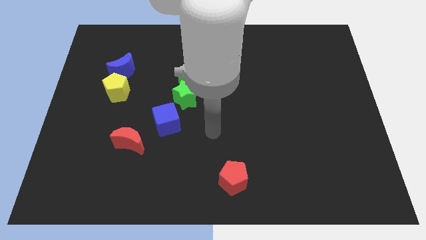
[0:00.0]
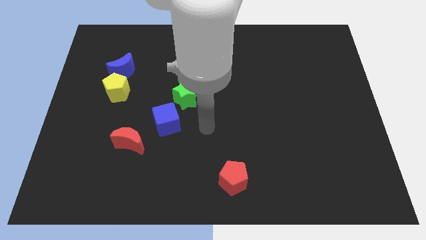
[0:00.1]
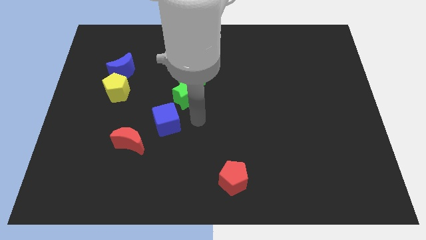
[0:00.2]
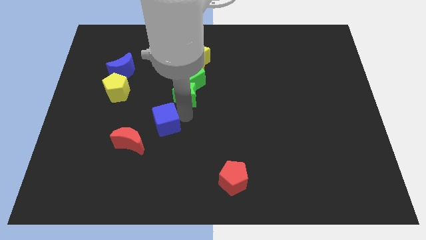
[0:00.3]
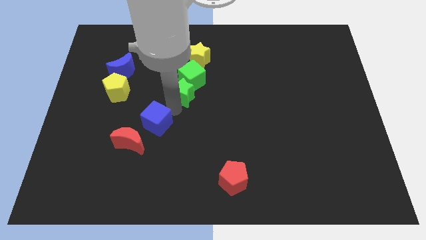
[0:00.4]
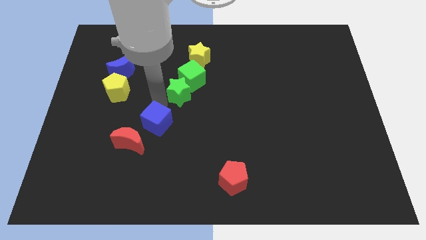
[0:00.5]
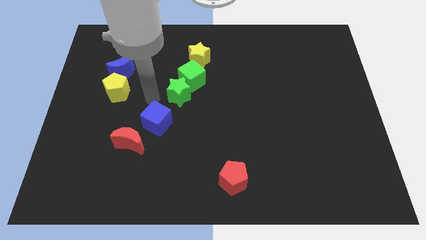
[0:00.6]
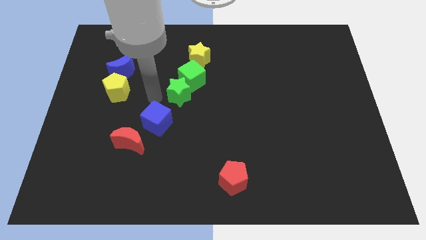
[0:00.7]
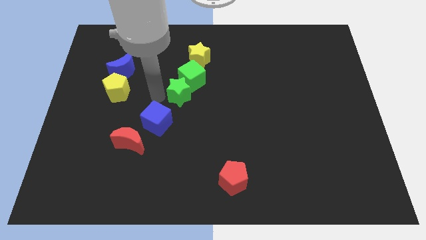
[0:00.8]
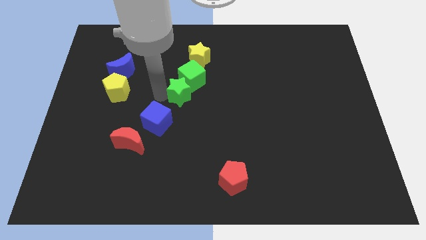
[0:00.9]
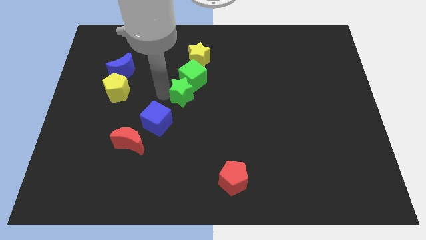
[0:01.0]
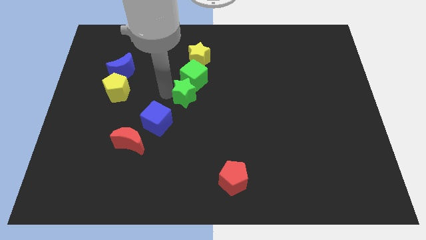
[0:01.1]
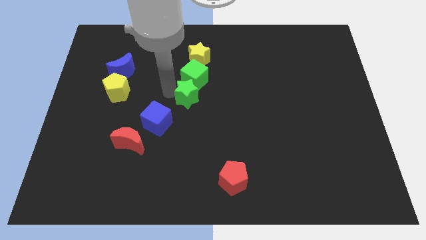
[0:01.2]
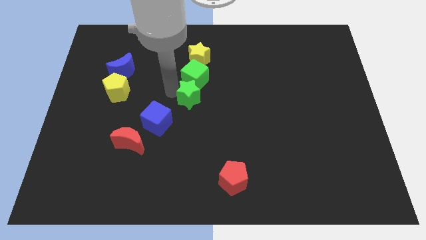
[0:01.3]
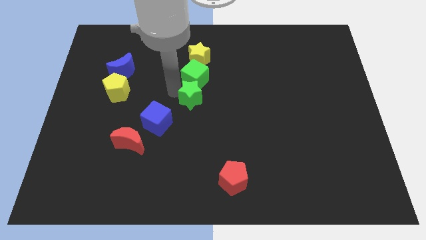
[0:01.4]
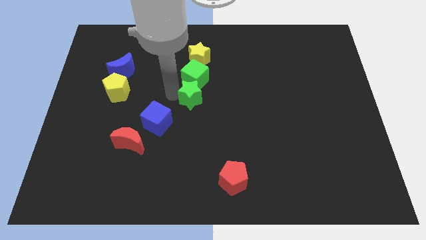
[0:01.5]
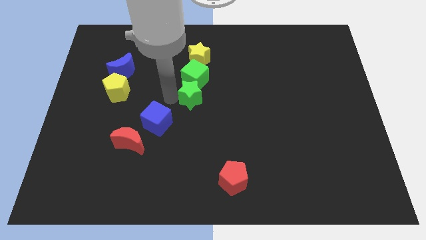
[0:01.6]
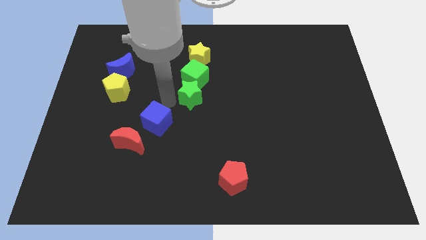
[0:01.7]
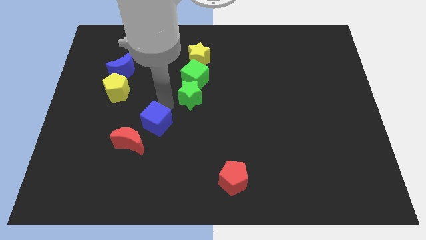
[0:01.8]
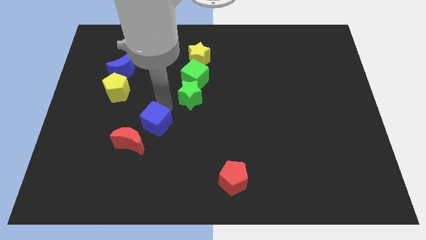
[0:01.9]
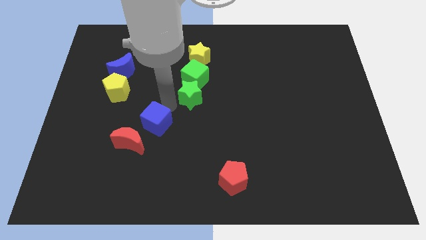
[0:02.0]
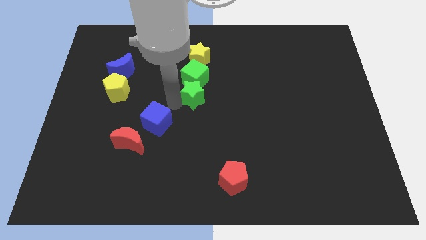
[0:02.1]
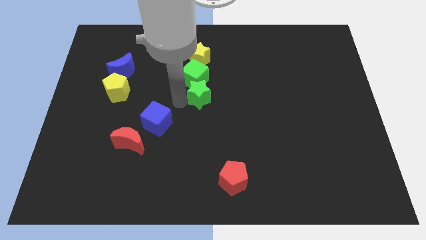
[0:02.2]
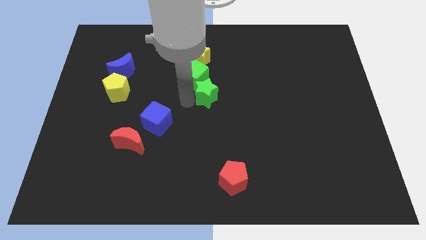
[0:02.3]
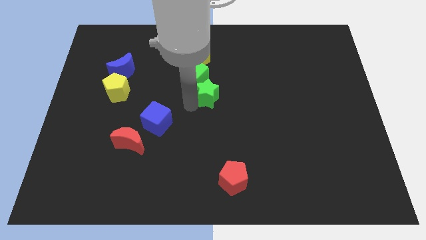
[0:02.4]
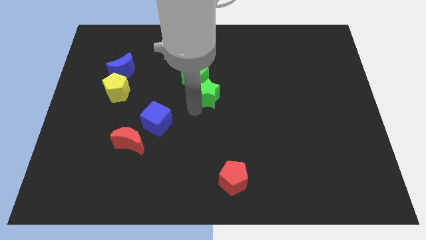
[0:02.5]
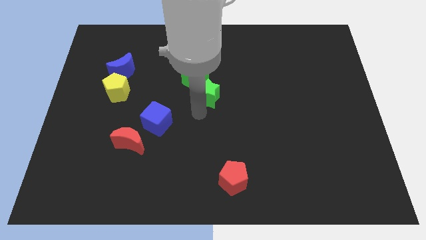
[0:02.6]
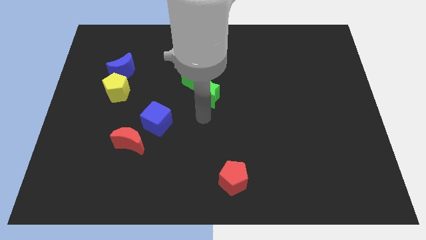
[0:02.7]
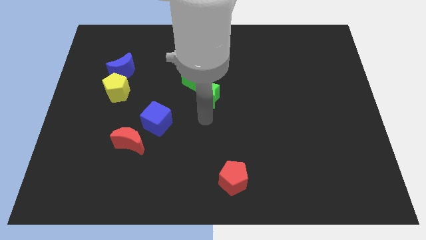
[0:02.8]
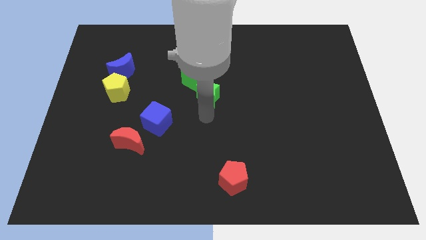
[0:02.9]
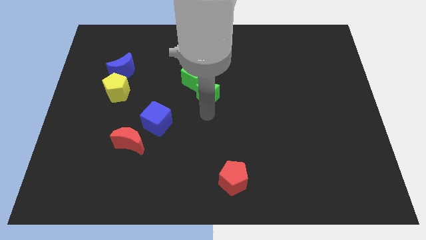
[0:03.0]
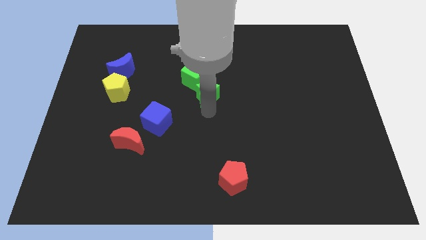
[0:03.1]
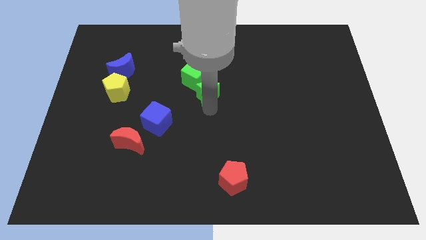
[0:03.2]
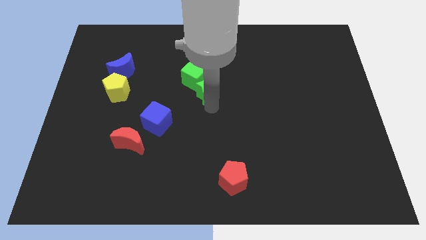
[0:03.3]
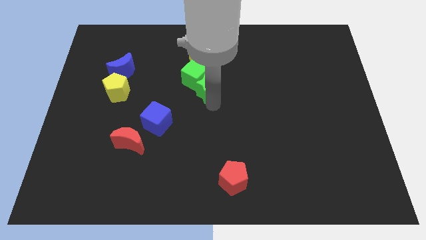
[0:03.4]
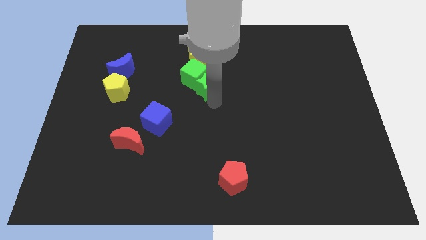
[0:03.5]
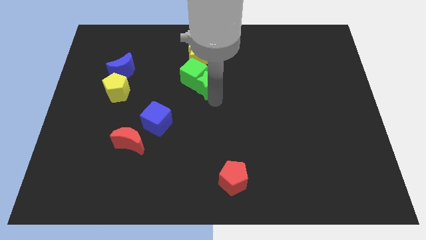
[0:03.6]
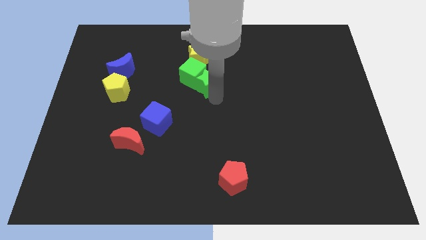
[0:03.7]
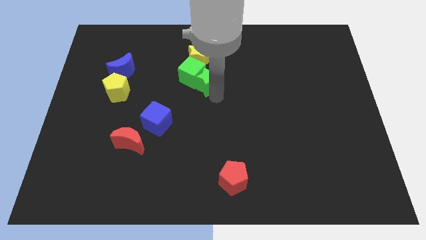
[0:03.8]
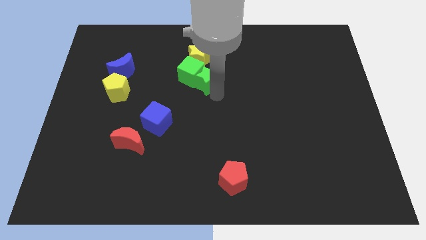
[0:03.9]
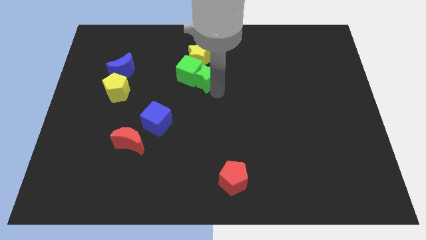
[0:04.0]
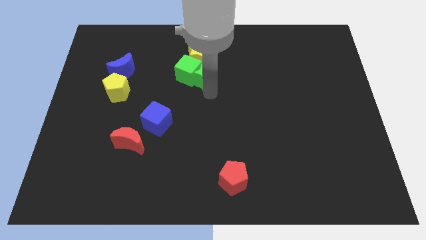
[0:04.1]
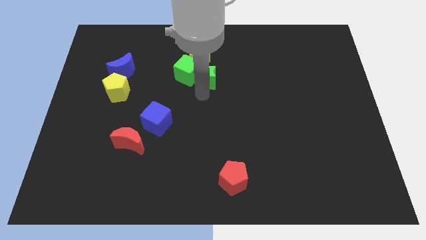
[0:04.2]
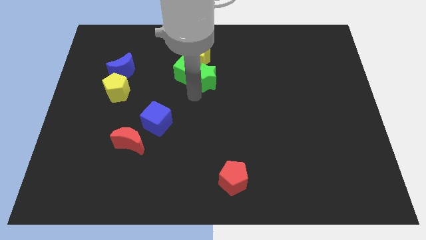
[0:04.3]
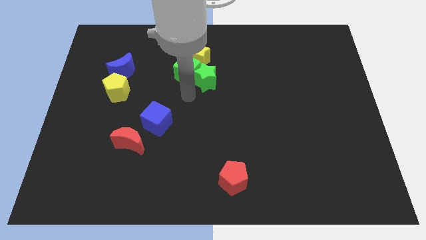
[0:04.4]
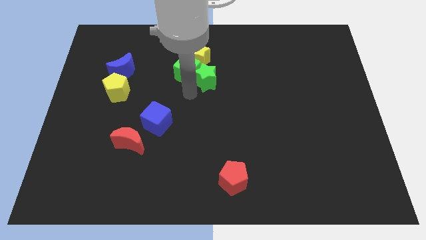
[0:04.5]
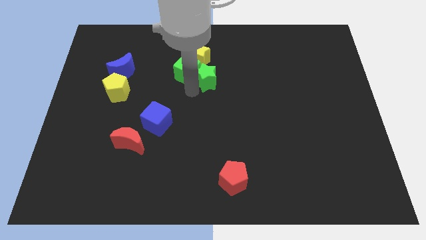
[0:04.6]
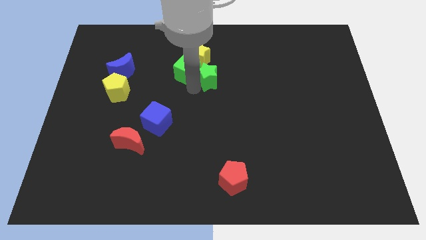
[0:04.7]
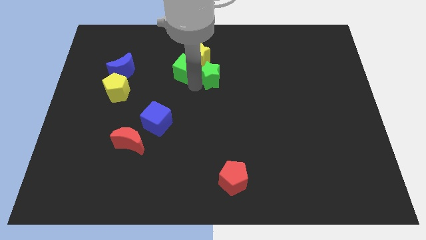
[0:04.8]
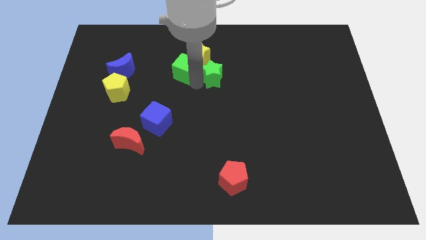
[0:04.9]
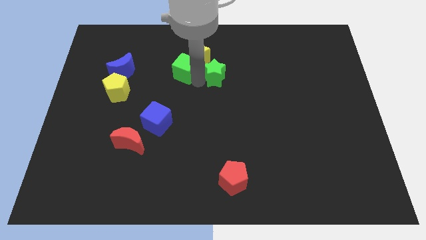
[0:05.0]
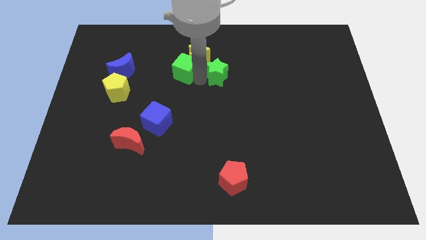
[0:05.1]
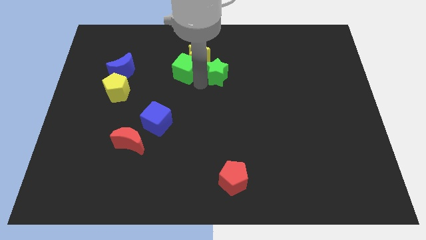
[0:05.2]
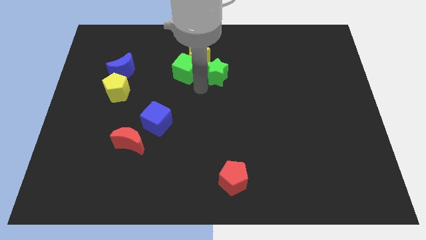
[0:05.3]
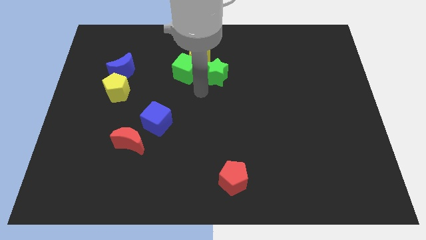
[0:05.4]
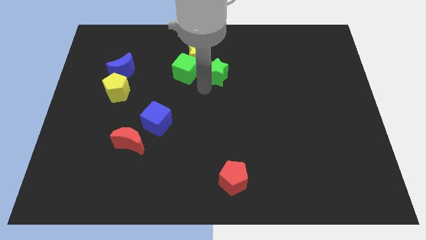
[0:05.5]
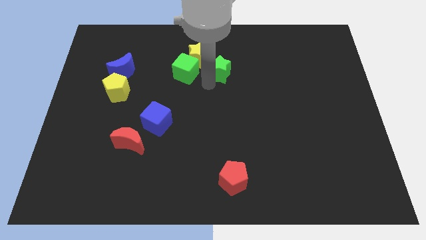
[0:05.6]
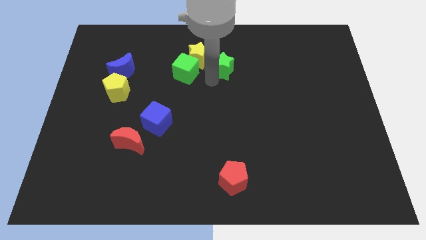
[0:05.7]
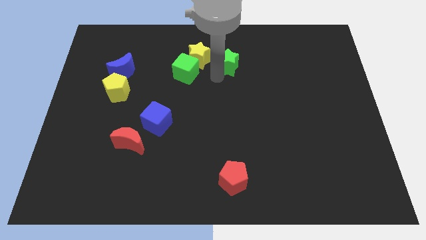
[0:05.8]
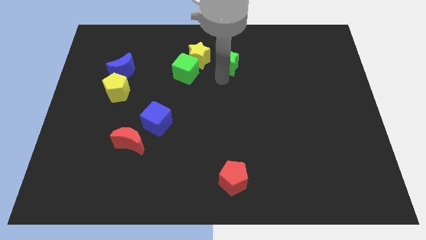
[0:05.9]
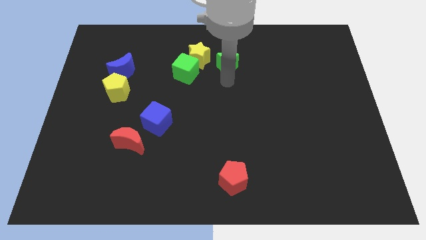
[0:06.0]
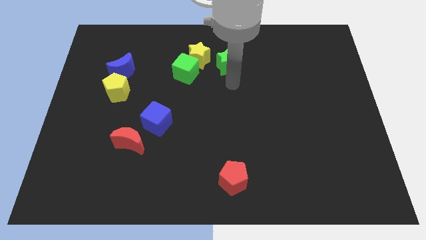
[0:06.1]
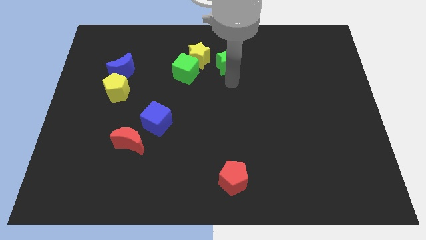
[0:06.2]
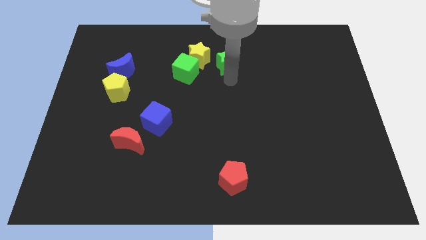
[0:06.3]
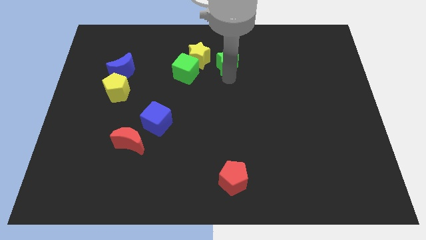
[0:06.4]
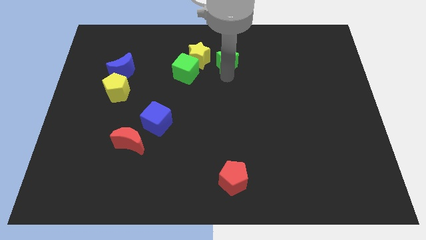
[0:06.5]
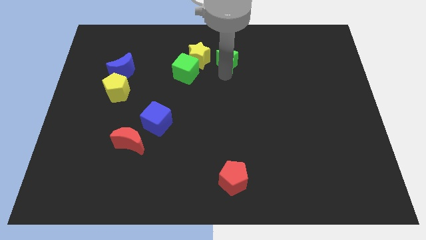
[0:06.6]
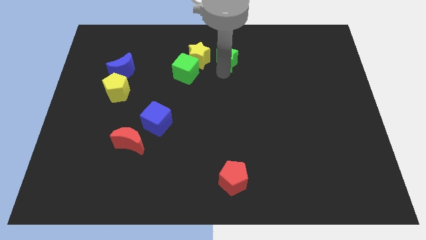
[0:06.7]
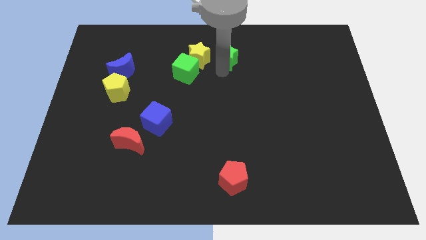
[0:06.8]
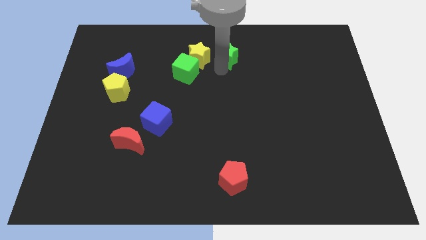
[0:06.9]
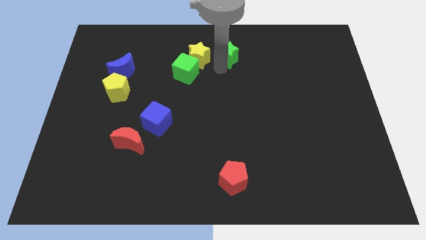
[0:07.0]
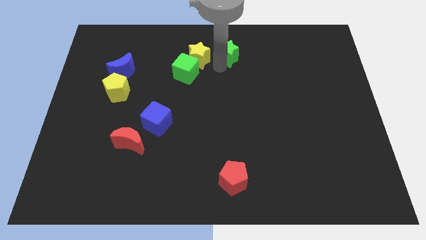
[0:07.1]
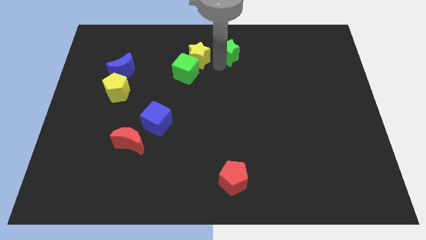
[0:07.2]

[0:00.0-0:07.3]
put the green star to the top side
